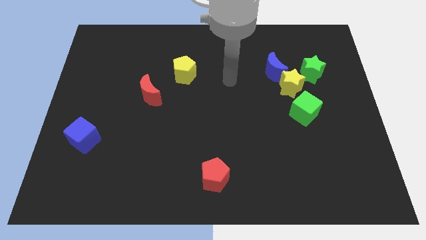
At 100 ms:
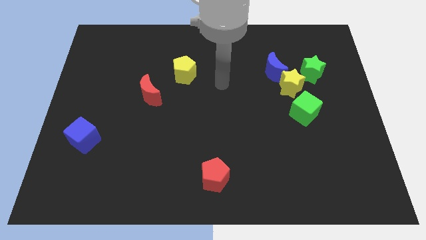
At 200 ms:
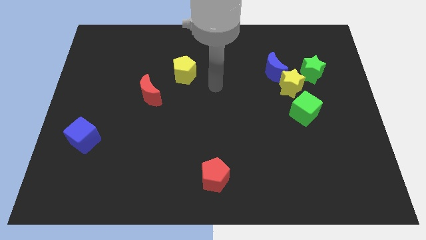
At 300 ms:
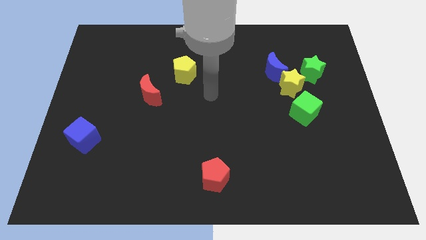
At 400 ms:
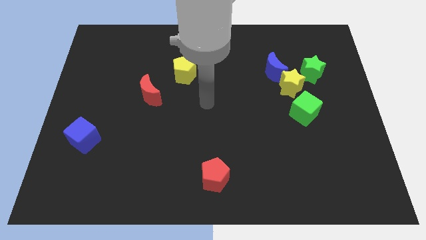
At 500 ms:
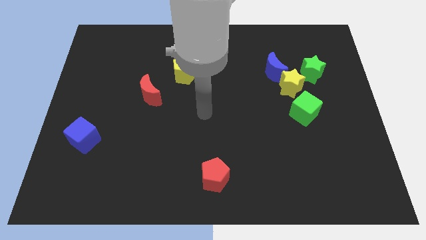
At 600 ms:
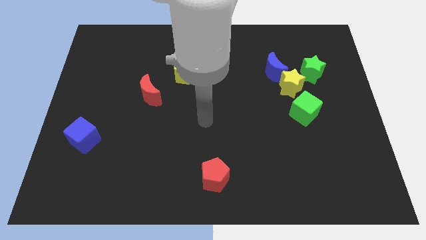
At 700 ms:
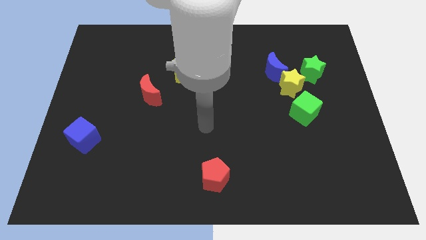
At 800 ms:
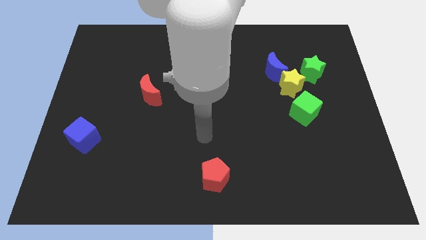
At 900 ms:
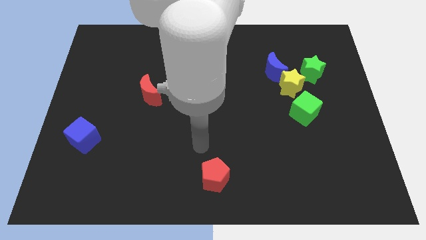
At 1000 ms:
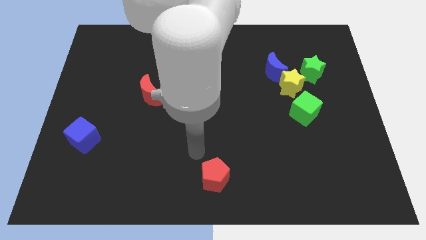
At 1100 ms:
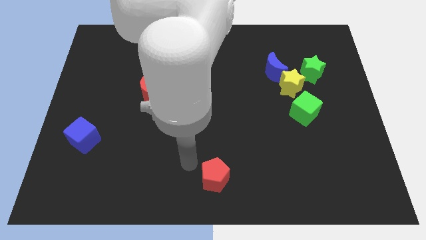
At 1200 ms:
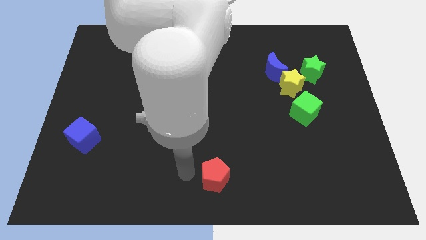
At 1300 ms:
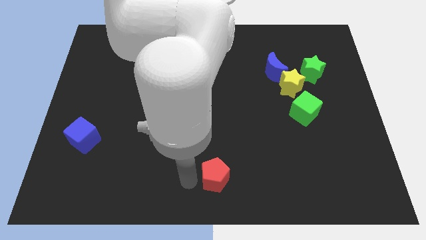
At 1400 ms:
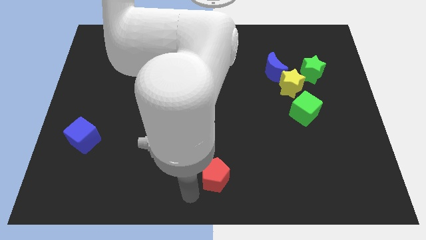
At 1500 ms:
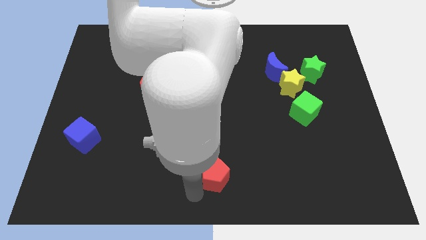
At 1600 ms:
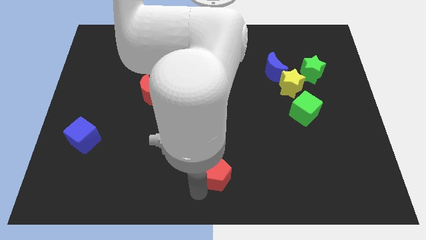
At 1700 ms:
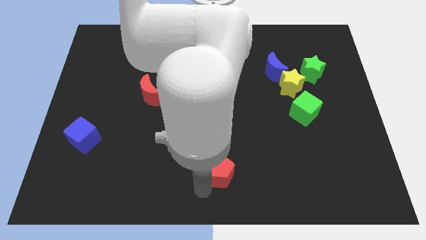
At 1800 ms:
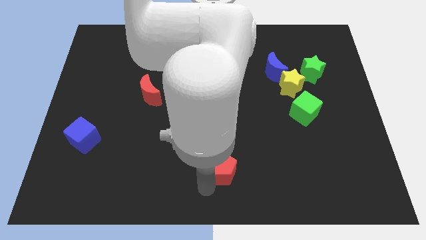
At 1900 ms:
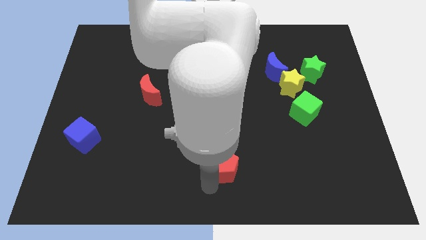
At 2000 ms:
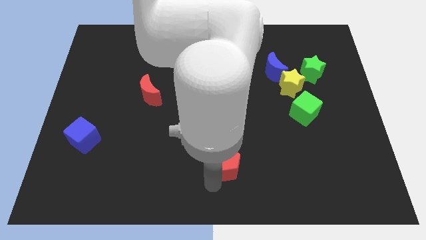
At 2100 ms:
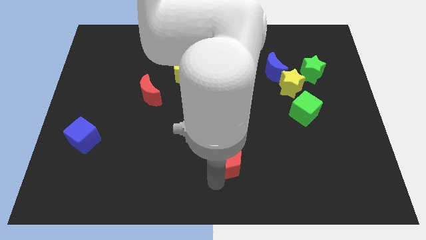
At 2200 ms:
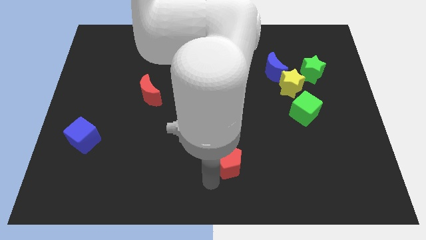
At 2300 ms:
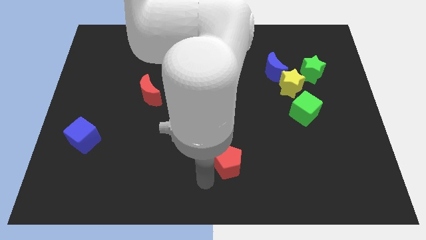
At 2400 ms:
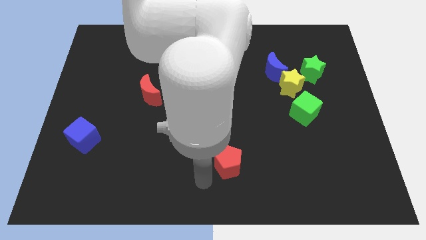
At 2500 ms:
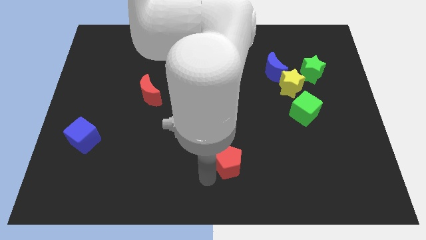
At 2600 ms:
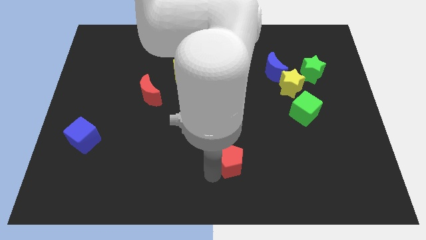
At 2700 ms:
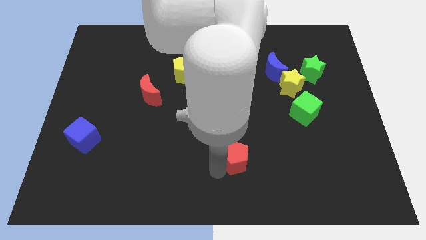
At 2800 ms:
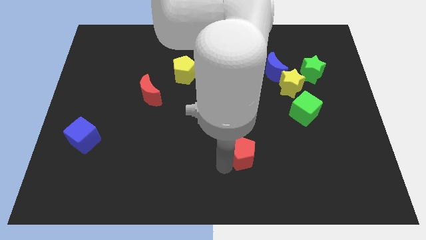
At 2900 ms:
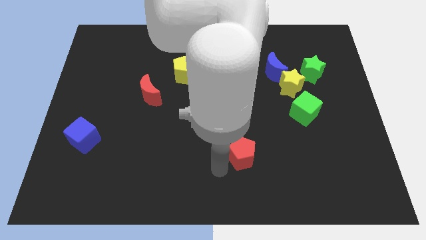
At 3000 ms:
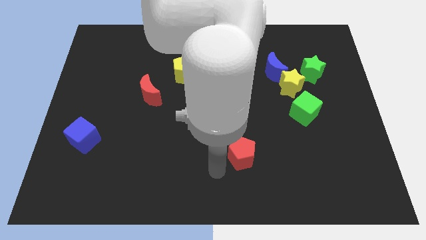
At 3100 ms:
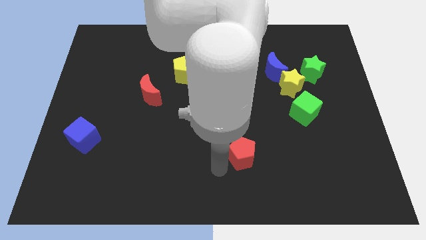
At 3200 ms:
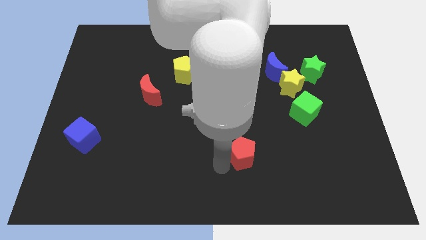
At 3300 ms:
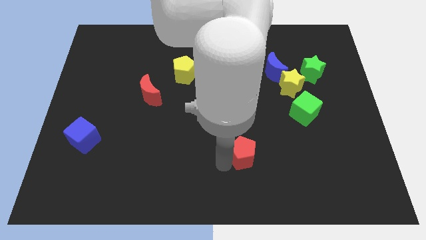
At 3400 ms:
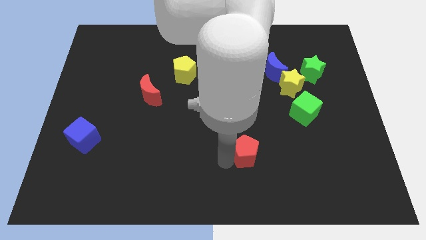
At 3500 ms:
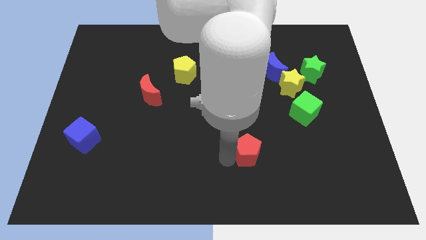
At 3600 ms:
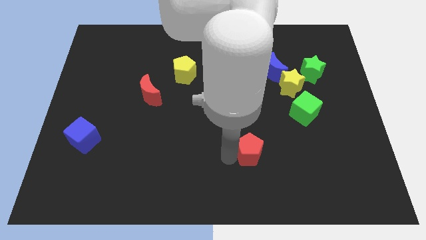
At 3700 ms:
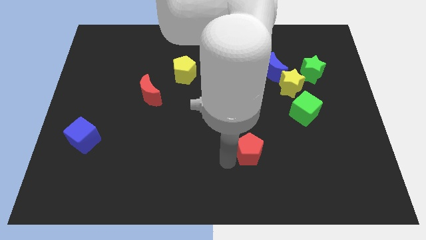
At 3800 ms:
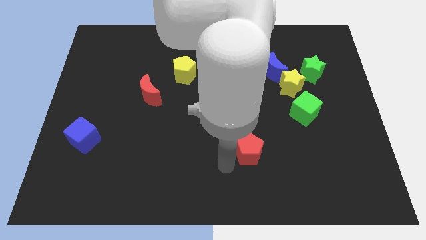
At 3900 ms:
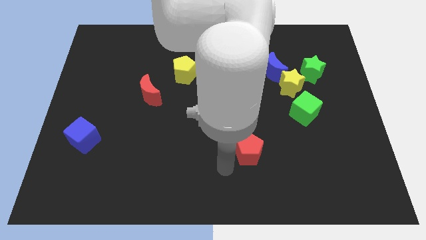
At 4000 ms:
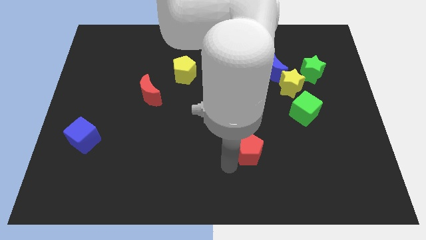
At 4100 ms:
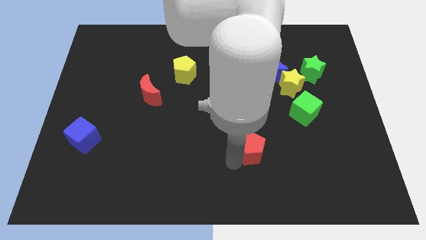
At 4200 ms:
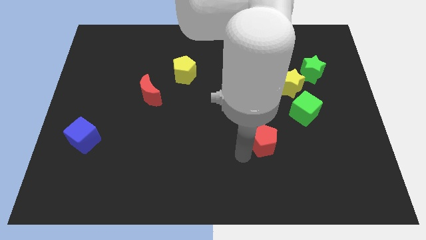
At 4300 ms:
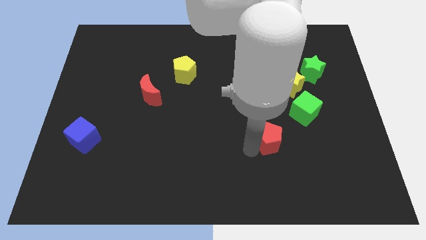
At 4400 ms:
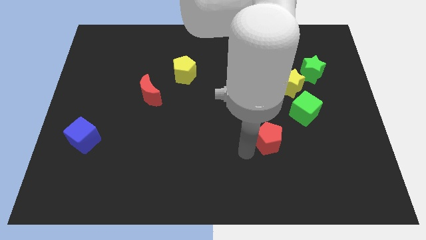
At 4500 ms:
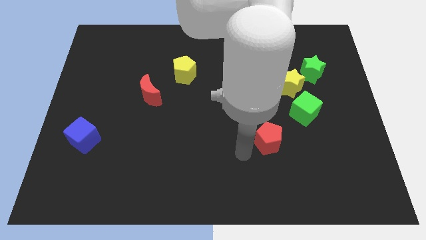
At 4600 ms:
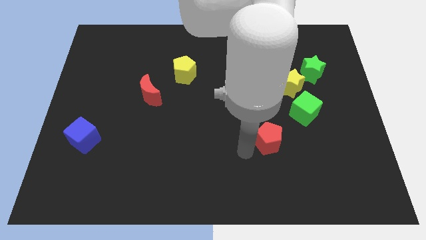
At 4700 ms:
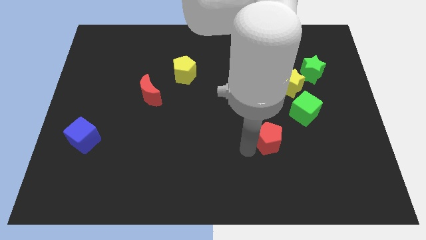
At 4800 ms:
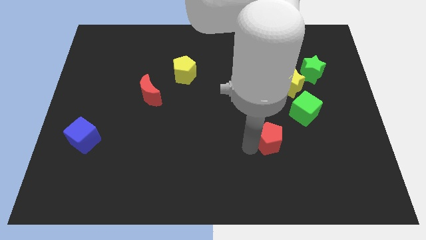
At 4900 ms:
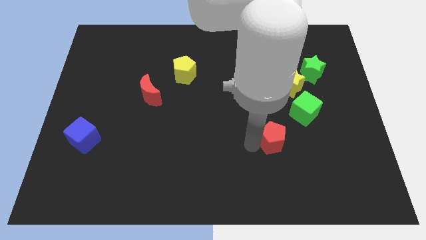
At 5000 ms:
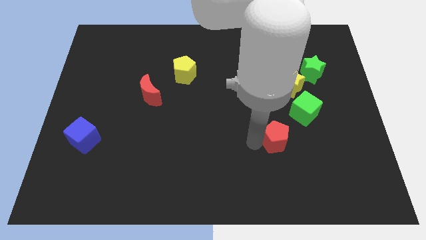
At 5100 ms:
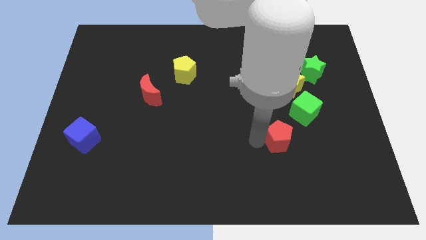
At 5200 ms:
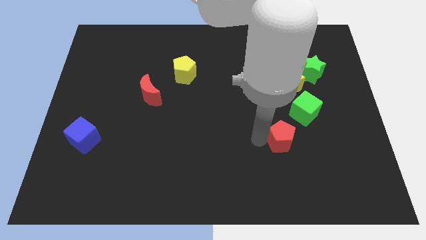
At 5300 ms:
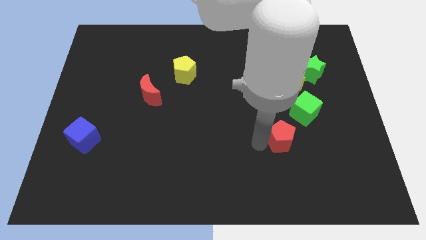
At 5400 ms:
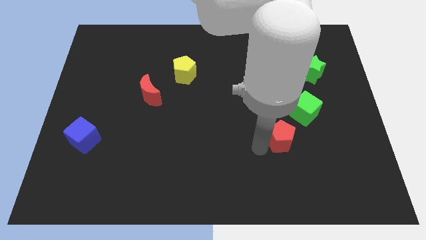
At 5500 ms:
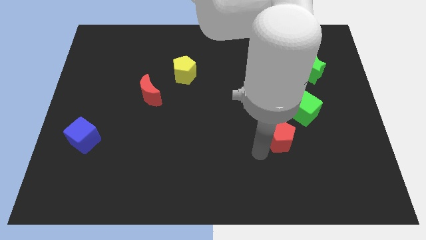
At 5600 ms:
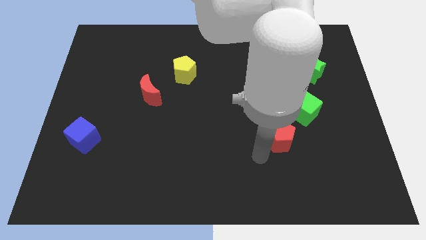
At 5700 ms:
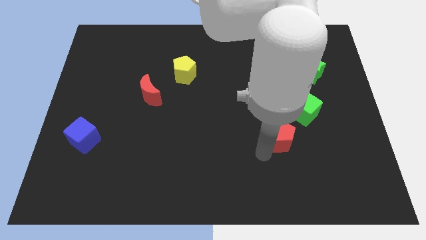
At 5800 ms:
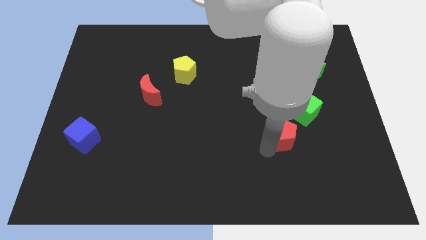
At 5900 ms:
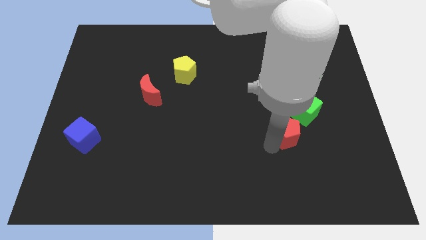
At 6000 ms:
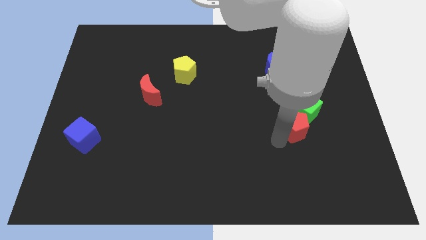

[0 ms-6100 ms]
move the red pentagon to the green cube
